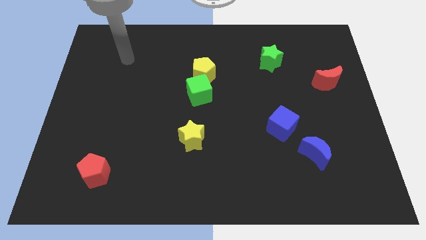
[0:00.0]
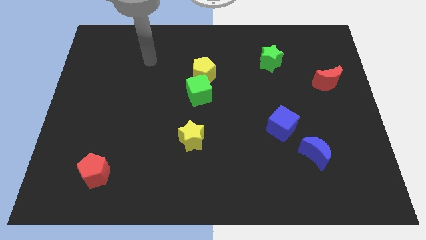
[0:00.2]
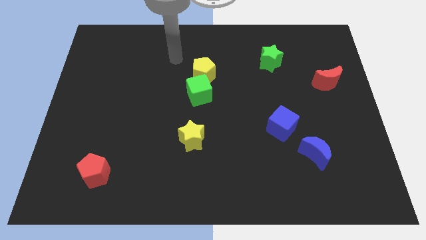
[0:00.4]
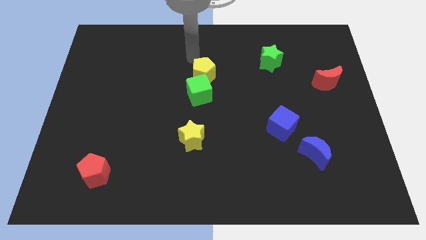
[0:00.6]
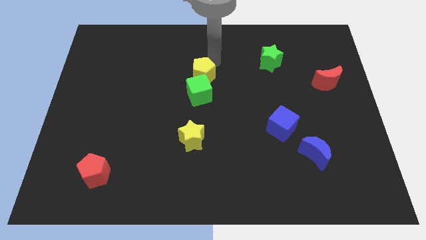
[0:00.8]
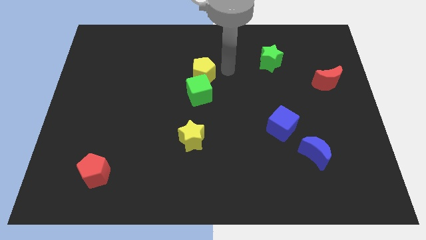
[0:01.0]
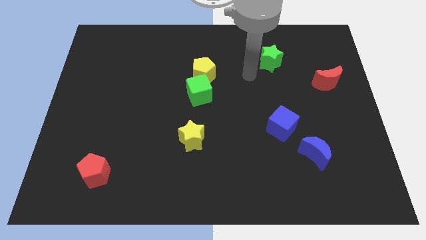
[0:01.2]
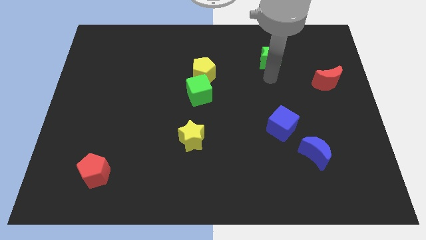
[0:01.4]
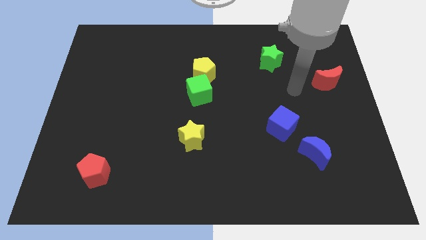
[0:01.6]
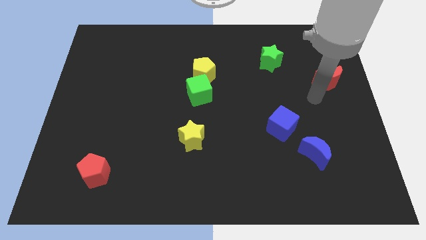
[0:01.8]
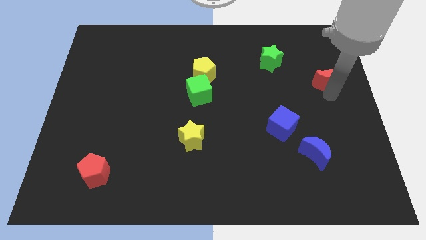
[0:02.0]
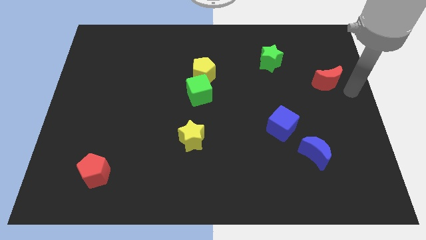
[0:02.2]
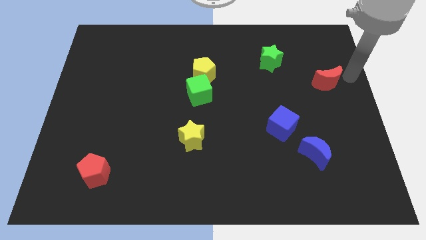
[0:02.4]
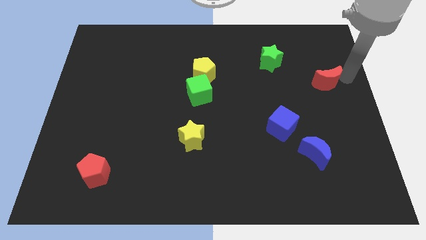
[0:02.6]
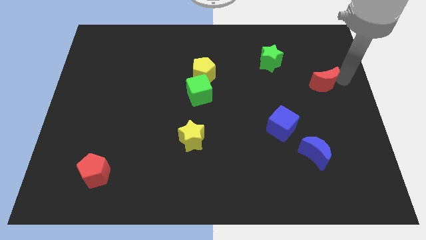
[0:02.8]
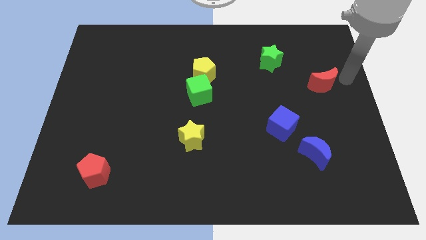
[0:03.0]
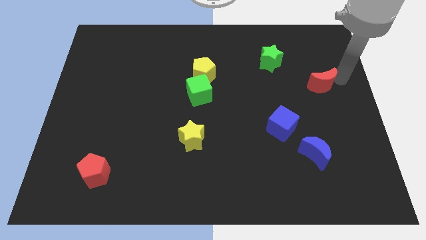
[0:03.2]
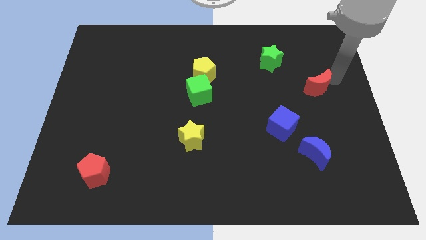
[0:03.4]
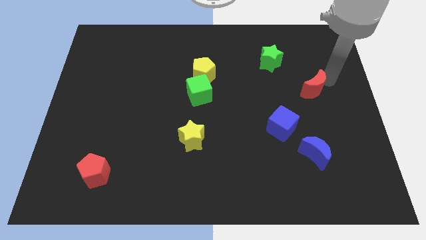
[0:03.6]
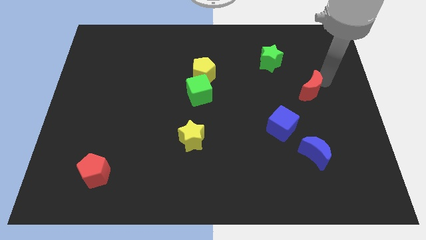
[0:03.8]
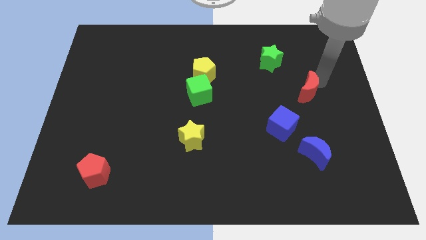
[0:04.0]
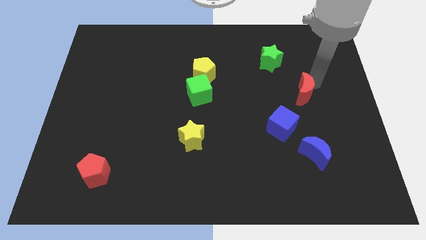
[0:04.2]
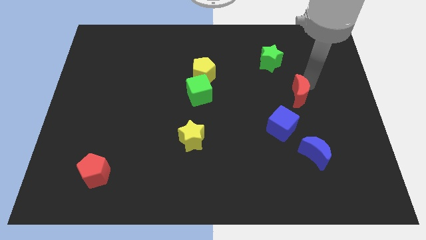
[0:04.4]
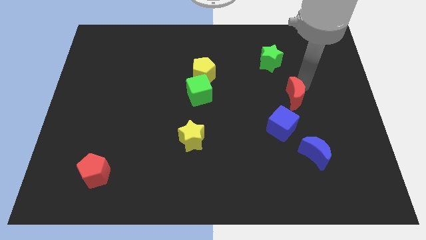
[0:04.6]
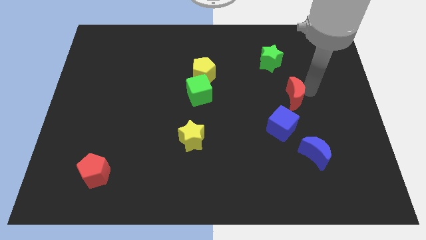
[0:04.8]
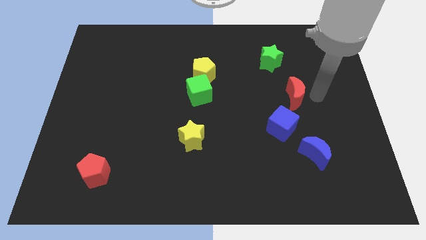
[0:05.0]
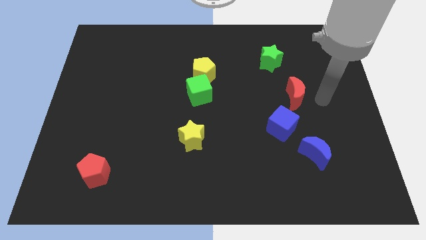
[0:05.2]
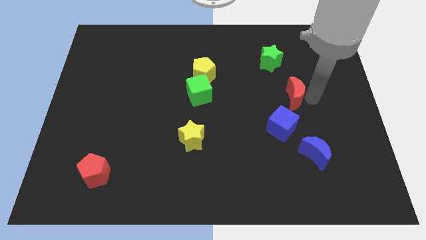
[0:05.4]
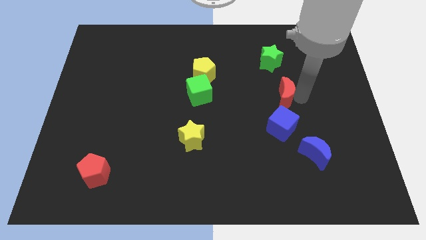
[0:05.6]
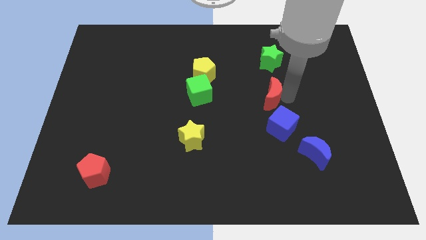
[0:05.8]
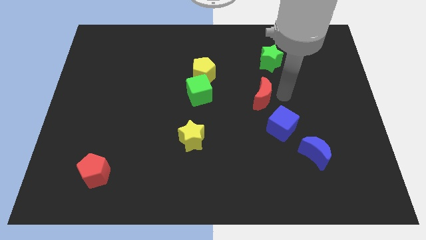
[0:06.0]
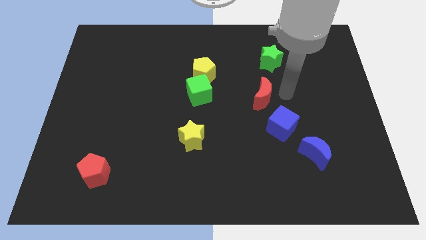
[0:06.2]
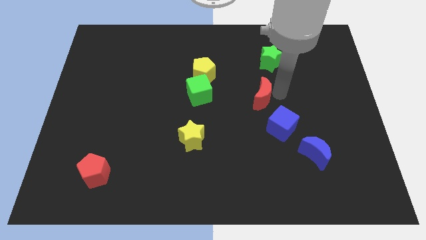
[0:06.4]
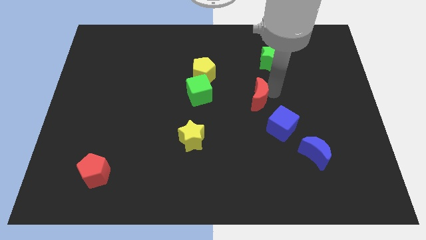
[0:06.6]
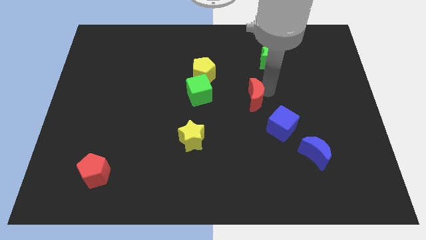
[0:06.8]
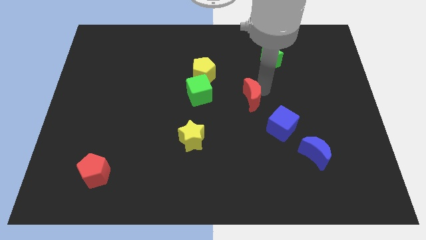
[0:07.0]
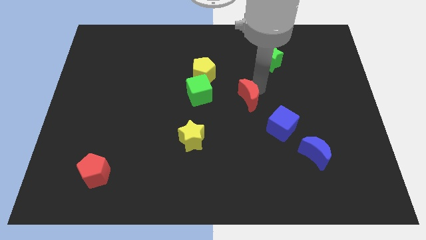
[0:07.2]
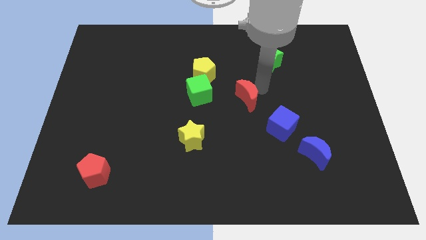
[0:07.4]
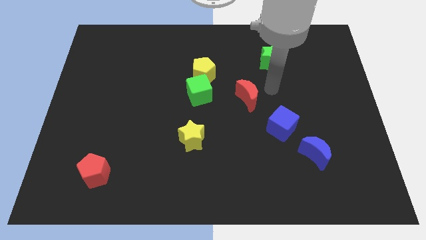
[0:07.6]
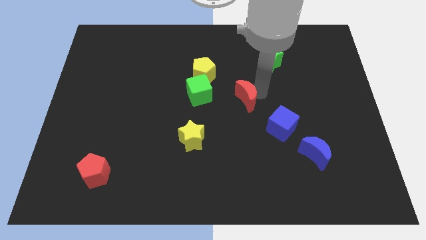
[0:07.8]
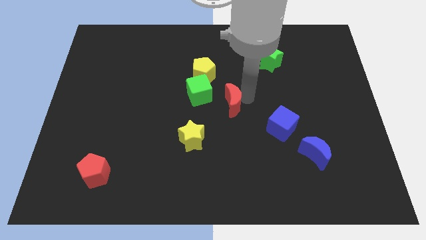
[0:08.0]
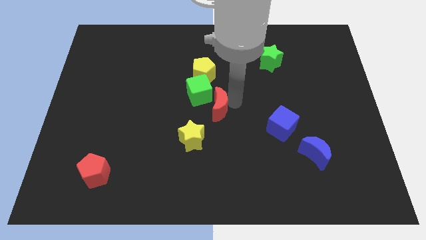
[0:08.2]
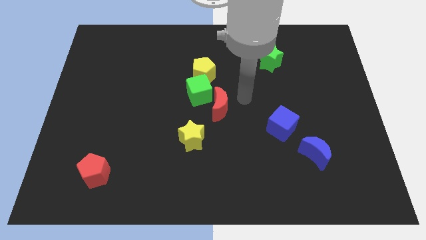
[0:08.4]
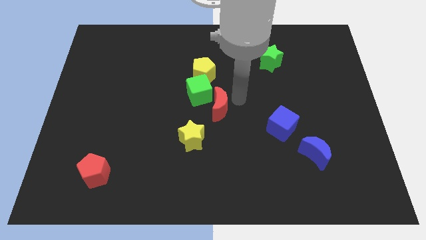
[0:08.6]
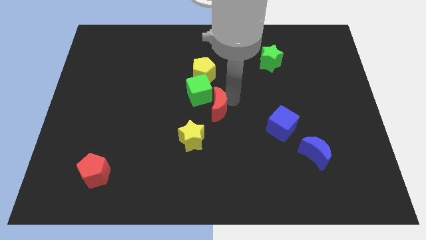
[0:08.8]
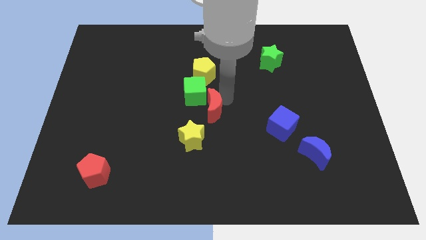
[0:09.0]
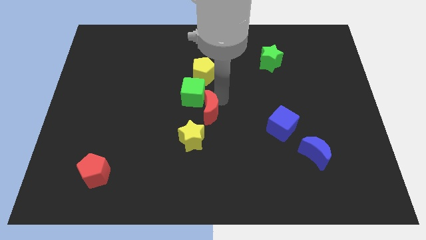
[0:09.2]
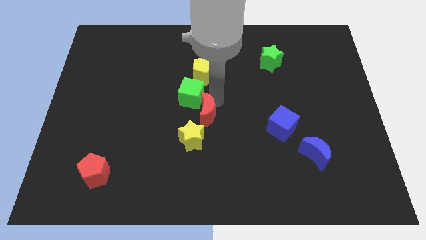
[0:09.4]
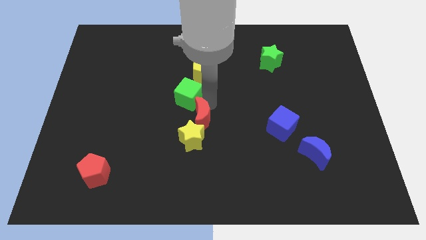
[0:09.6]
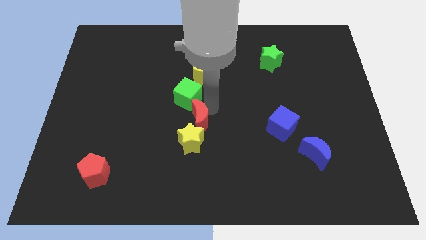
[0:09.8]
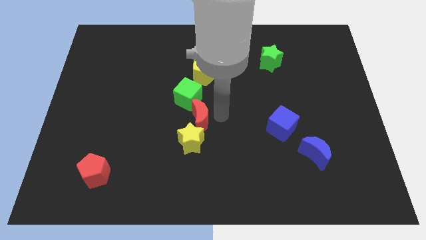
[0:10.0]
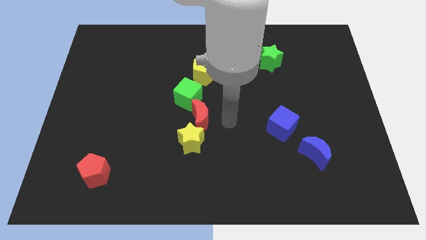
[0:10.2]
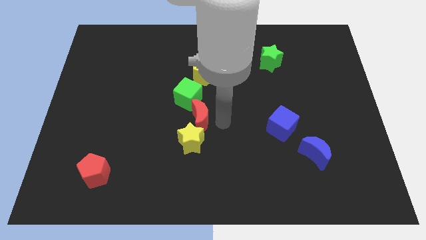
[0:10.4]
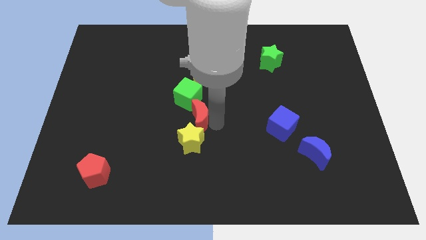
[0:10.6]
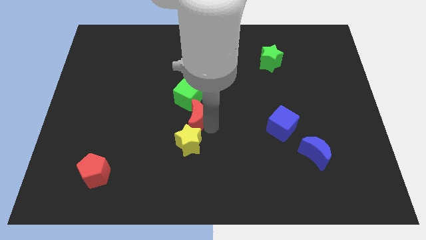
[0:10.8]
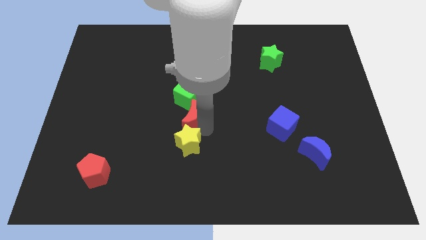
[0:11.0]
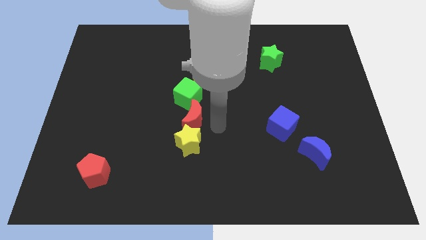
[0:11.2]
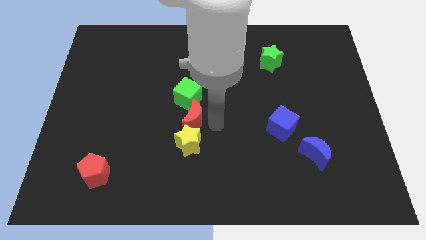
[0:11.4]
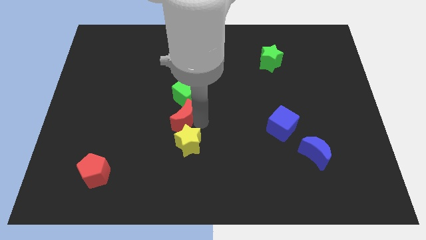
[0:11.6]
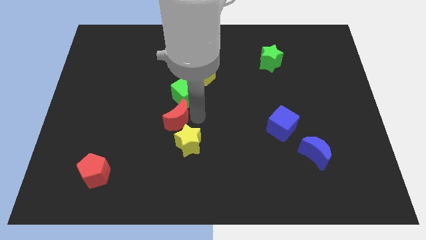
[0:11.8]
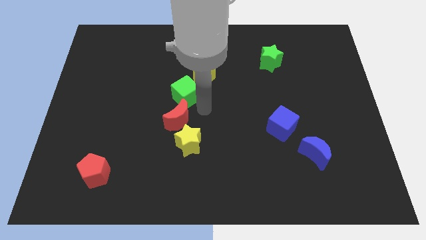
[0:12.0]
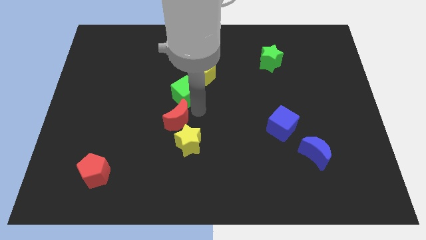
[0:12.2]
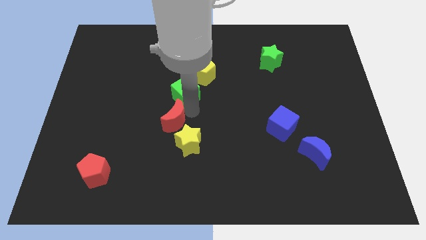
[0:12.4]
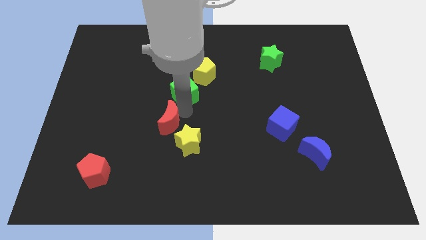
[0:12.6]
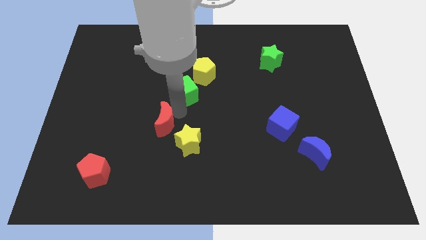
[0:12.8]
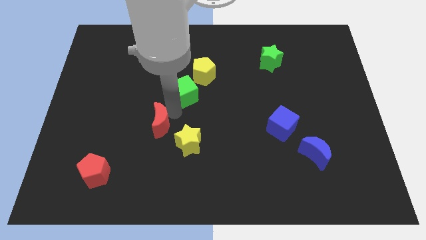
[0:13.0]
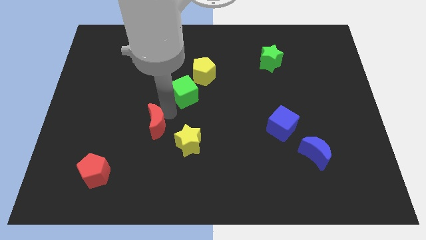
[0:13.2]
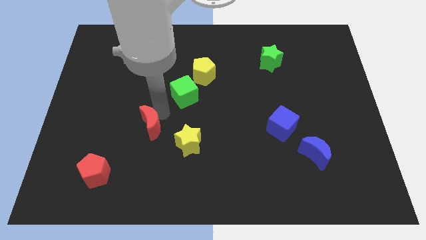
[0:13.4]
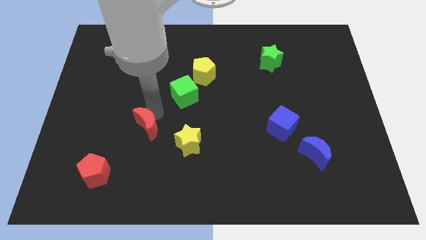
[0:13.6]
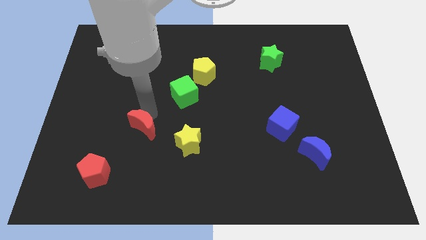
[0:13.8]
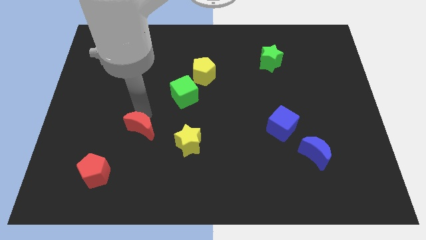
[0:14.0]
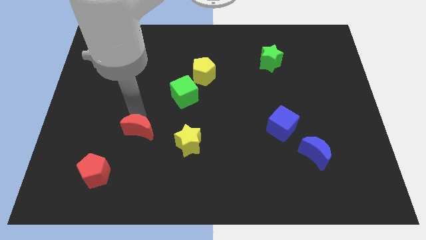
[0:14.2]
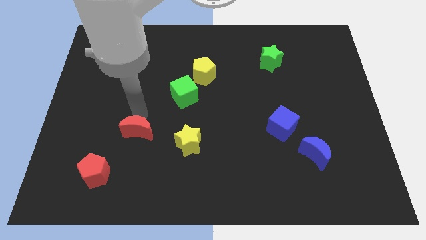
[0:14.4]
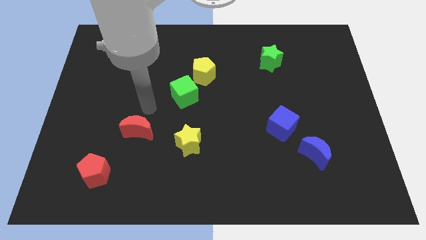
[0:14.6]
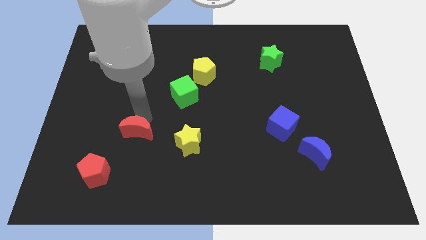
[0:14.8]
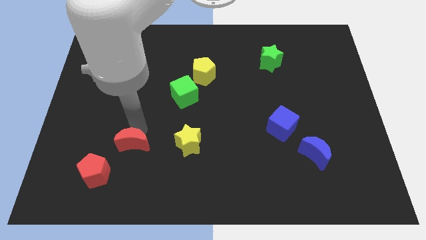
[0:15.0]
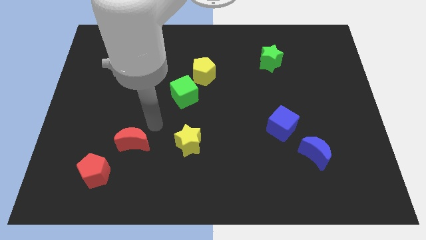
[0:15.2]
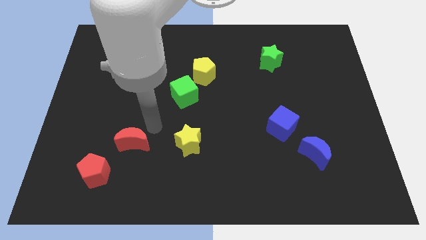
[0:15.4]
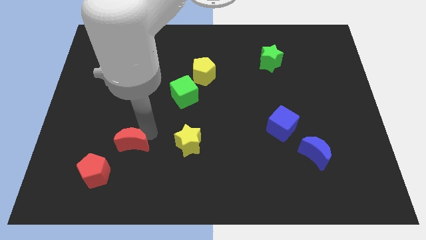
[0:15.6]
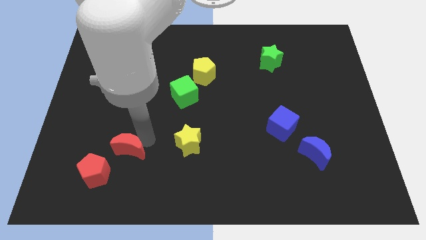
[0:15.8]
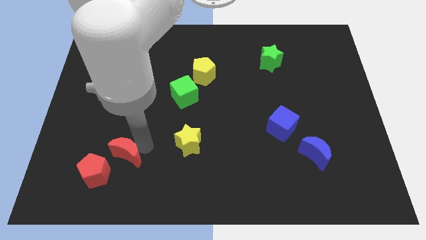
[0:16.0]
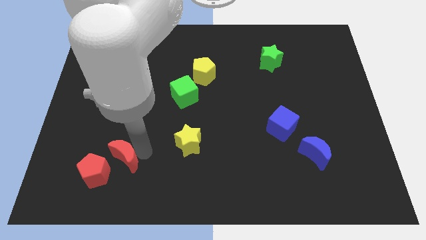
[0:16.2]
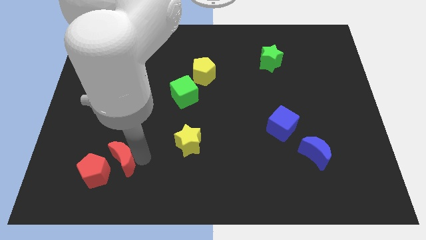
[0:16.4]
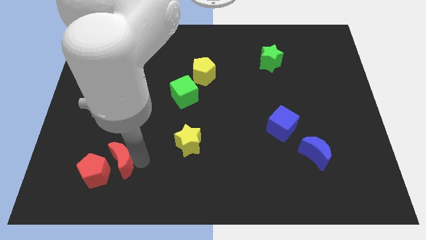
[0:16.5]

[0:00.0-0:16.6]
push the red moon next to the red pentagon
